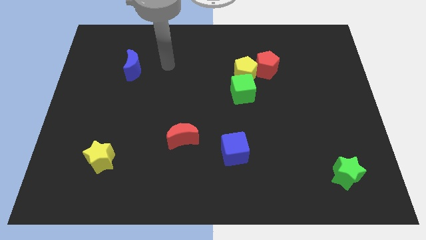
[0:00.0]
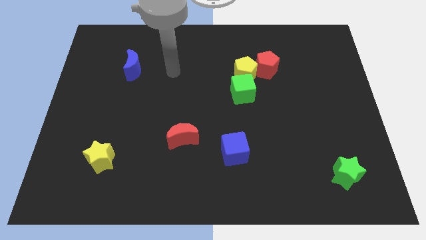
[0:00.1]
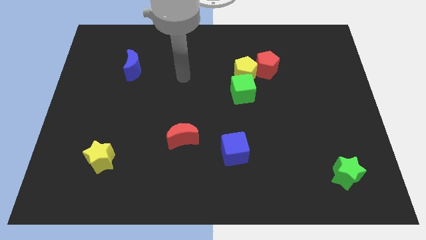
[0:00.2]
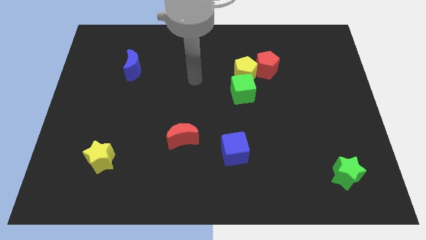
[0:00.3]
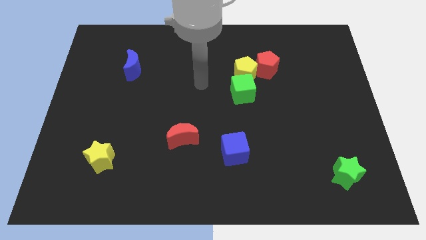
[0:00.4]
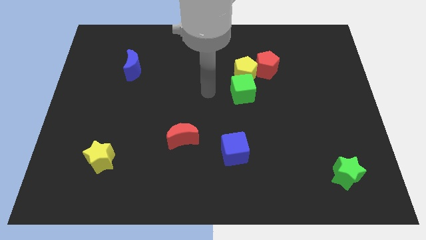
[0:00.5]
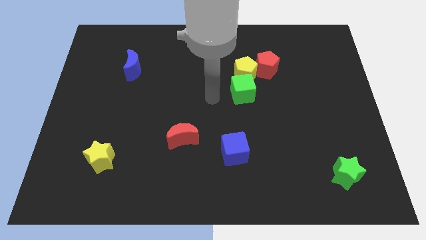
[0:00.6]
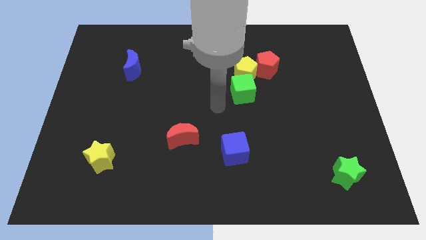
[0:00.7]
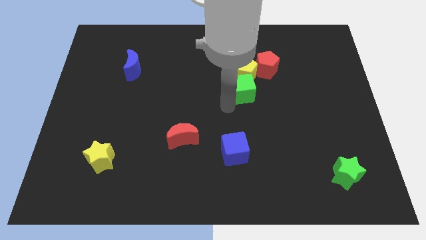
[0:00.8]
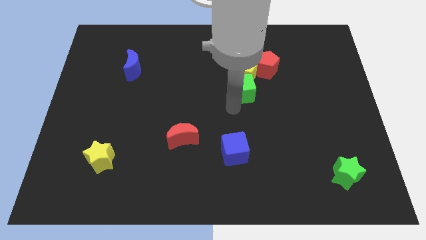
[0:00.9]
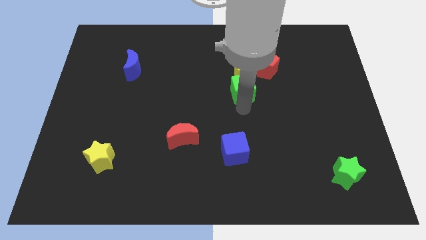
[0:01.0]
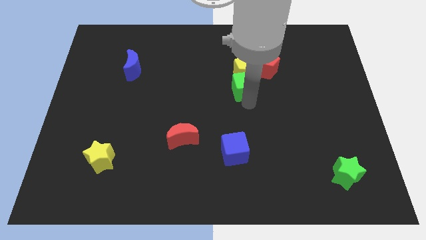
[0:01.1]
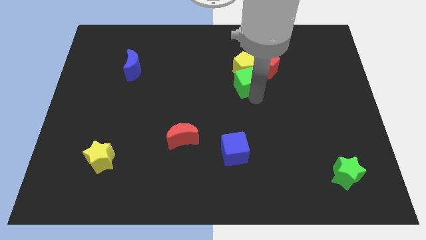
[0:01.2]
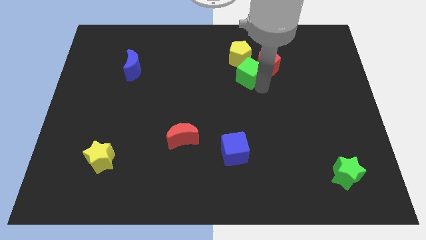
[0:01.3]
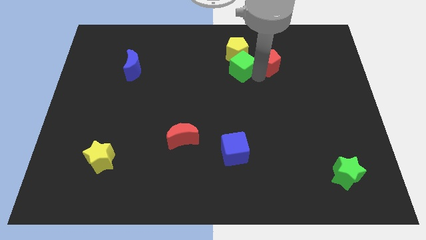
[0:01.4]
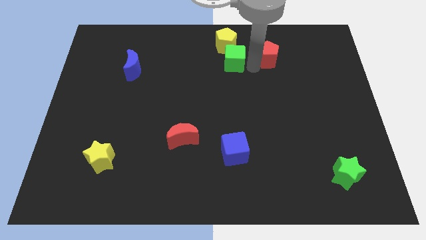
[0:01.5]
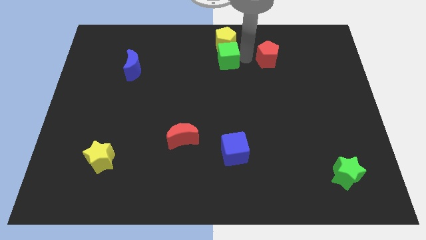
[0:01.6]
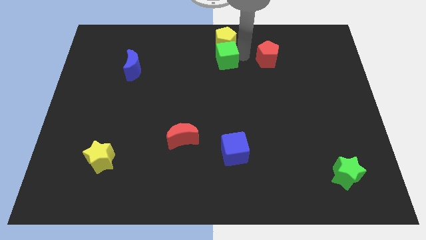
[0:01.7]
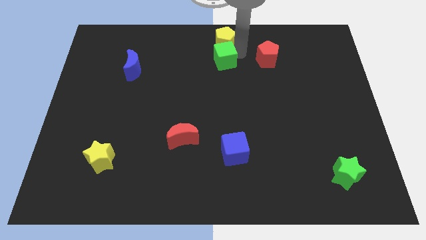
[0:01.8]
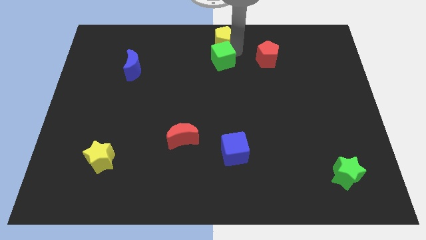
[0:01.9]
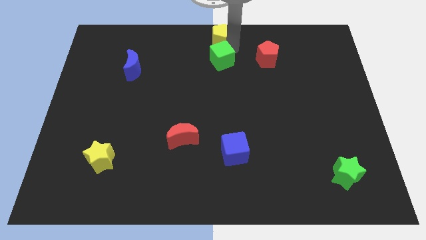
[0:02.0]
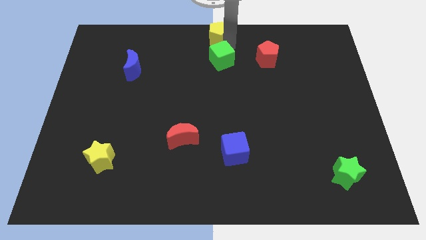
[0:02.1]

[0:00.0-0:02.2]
pull the yellow pentagon apart from the red pentagon and green cube

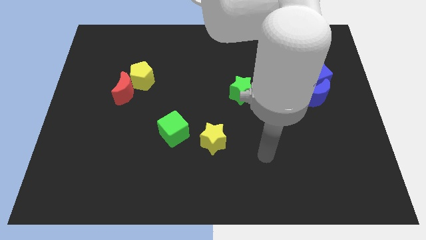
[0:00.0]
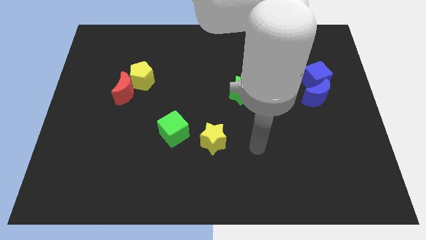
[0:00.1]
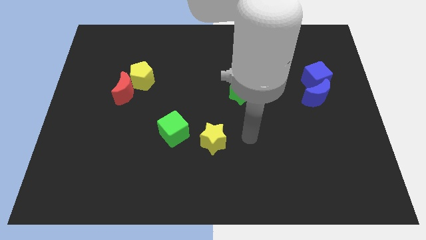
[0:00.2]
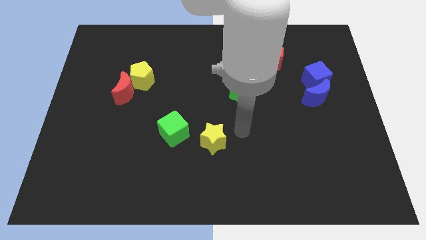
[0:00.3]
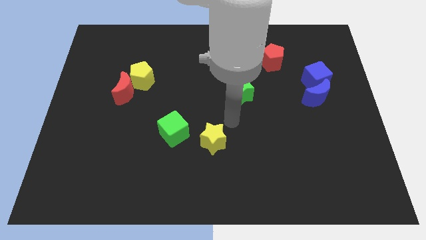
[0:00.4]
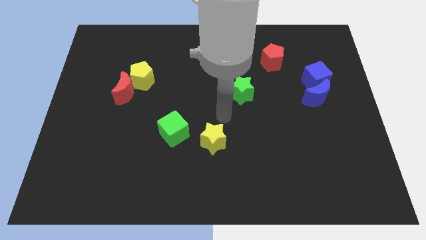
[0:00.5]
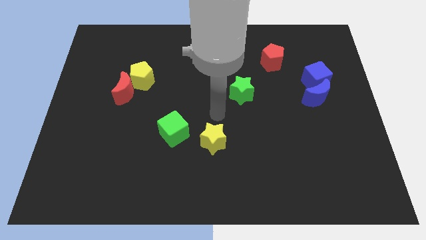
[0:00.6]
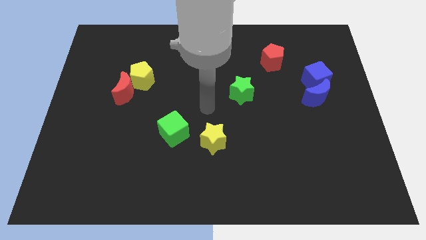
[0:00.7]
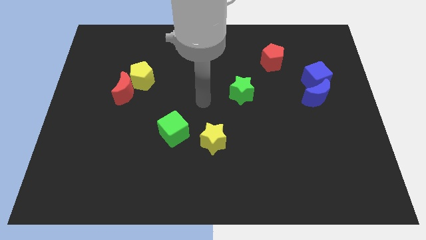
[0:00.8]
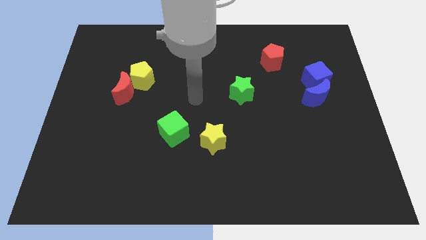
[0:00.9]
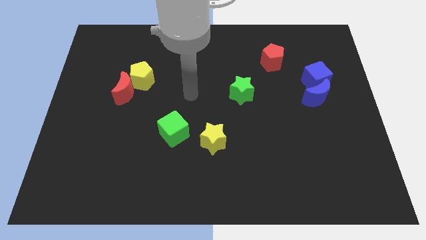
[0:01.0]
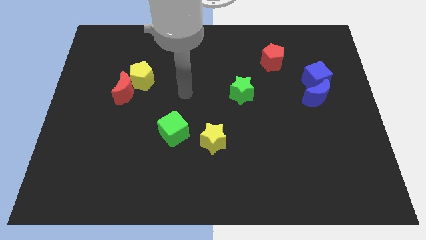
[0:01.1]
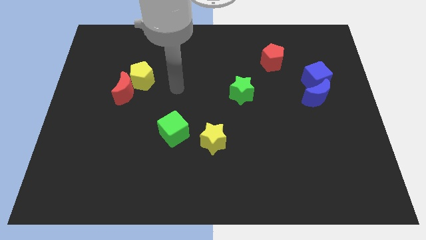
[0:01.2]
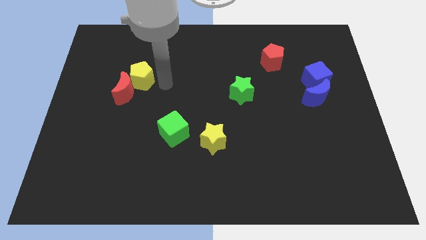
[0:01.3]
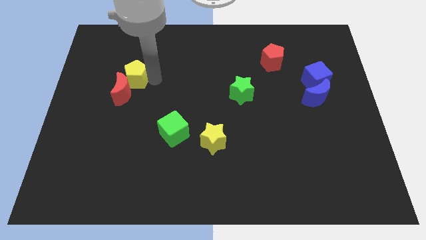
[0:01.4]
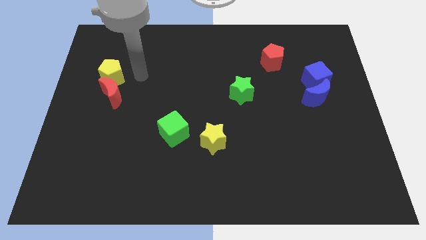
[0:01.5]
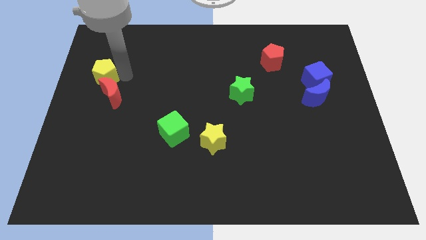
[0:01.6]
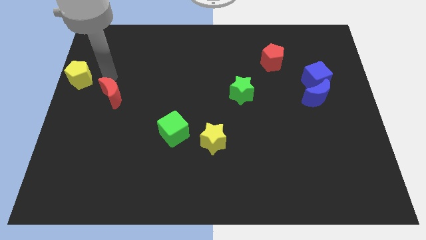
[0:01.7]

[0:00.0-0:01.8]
separate the red moon from the yellow pentagon

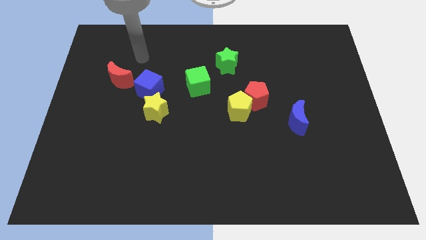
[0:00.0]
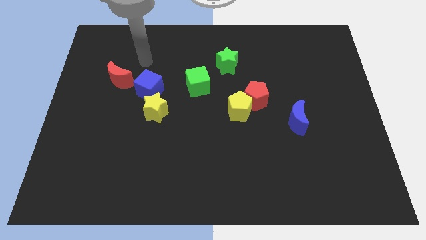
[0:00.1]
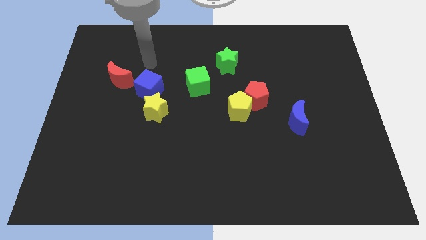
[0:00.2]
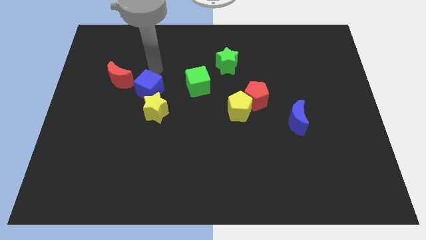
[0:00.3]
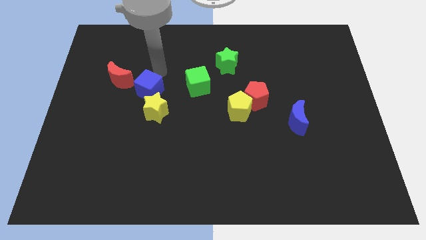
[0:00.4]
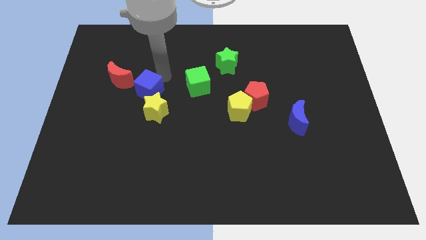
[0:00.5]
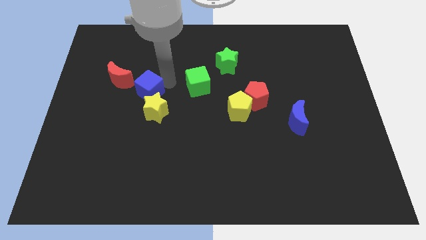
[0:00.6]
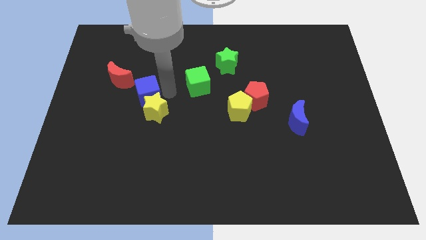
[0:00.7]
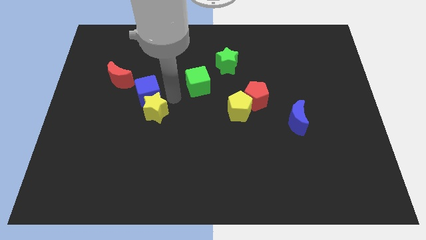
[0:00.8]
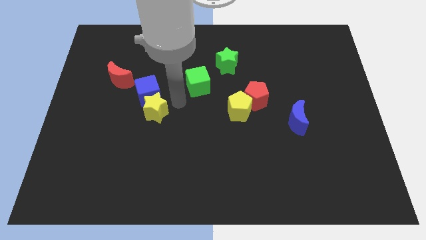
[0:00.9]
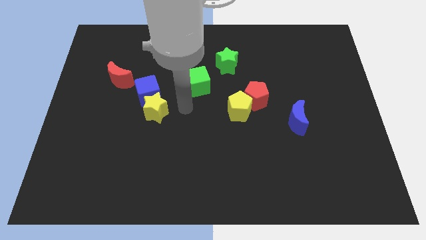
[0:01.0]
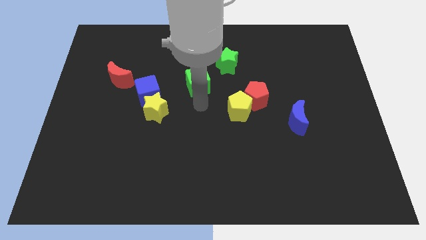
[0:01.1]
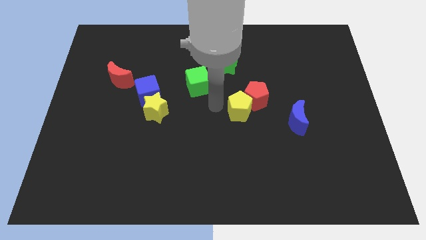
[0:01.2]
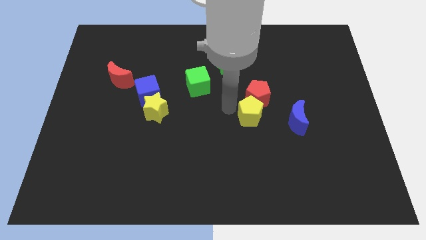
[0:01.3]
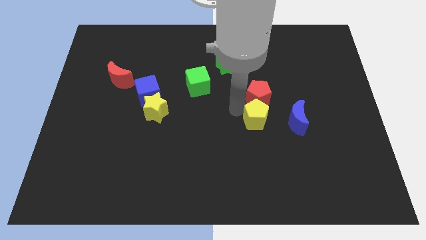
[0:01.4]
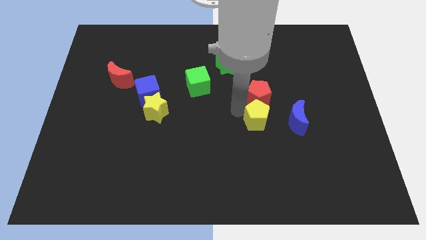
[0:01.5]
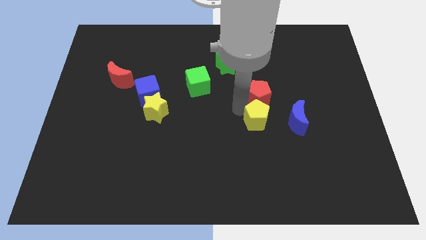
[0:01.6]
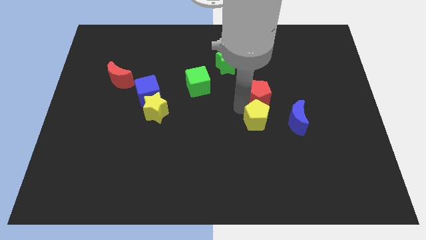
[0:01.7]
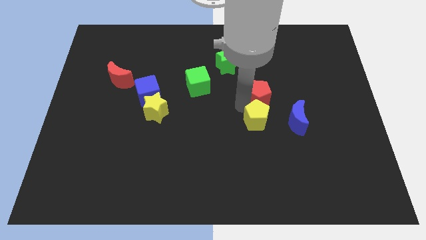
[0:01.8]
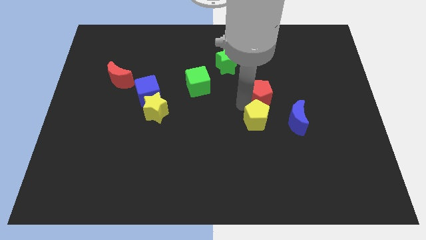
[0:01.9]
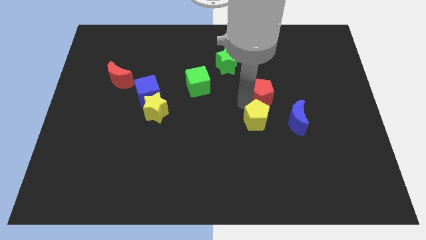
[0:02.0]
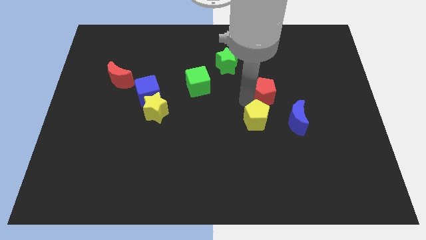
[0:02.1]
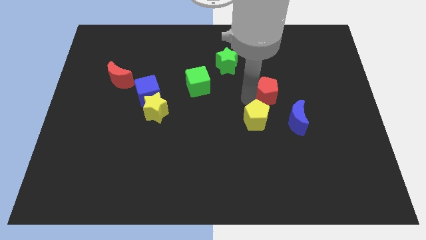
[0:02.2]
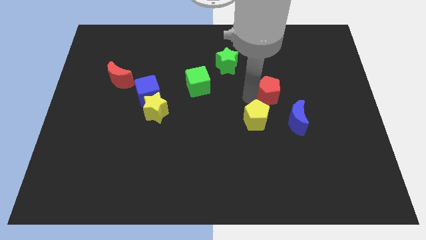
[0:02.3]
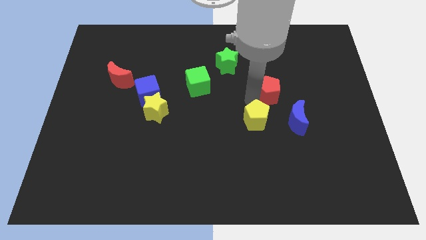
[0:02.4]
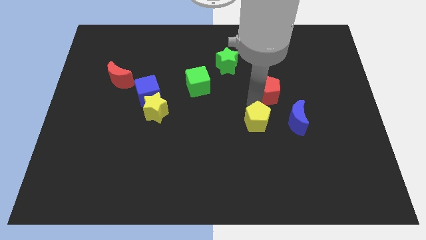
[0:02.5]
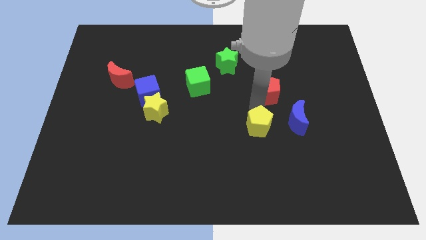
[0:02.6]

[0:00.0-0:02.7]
move the red pentagon away from the yellow pentagon

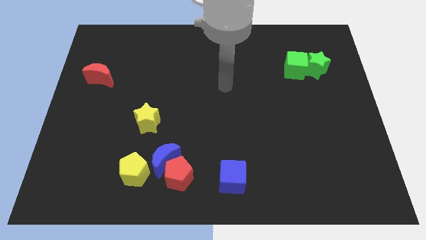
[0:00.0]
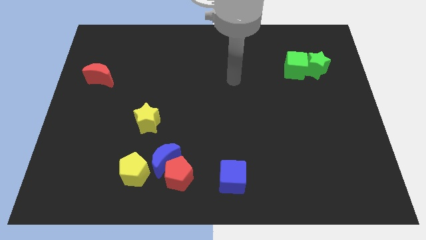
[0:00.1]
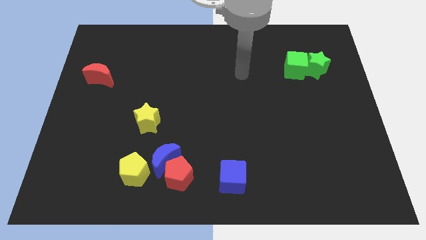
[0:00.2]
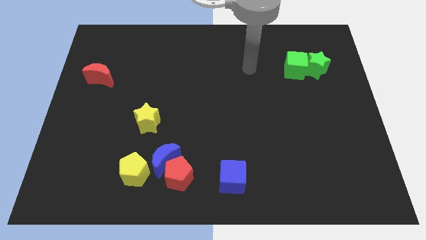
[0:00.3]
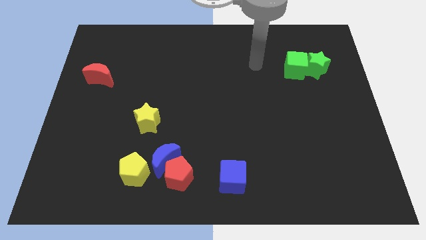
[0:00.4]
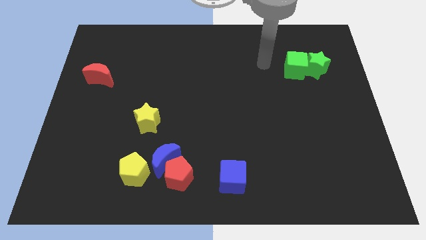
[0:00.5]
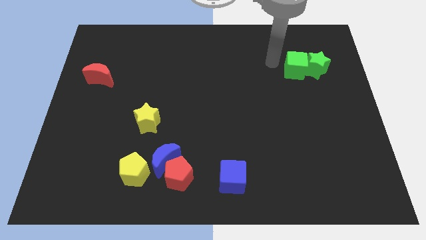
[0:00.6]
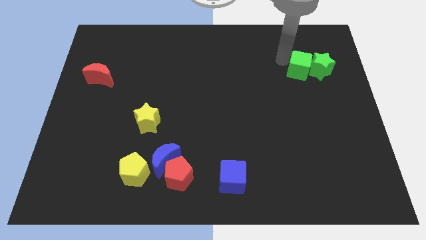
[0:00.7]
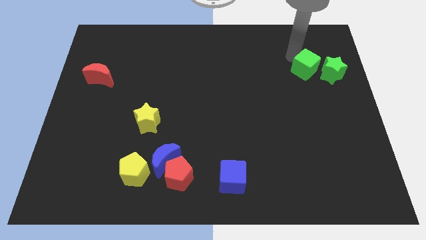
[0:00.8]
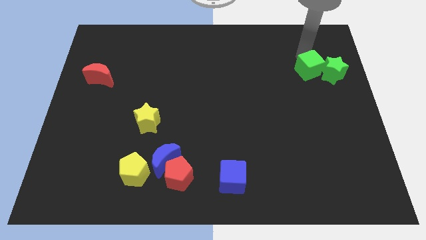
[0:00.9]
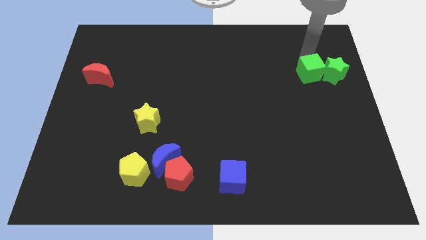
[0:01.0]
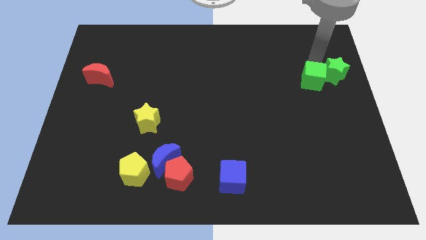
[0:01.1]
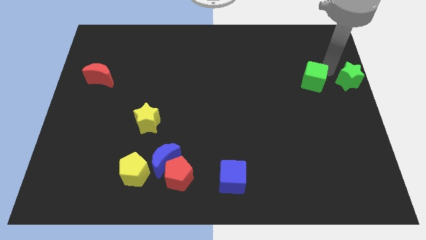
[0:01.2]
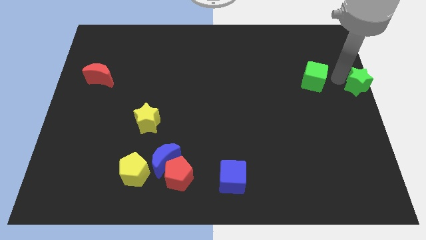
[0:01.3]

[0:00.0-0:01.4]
move the green cube away from the green star

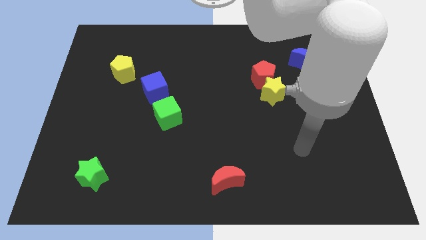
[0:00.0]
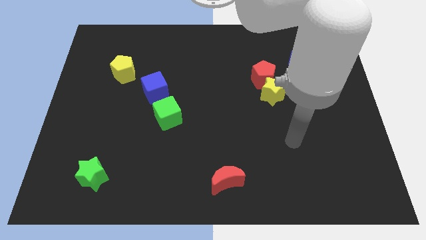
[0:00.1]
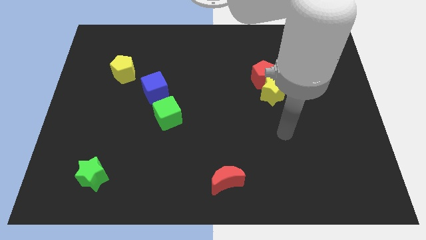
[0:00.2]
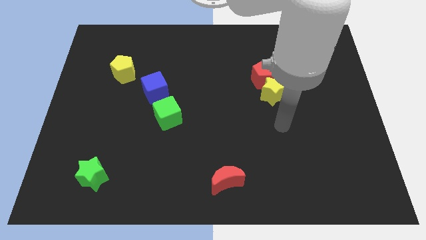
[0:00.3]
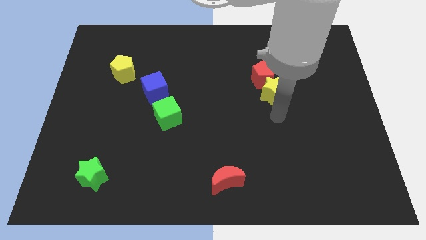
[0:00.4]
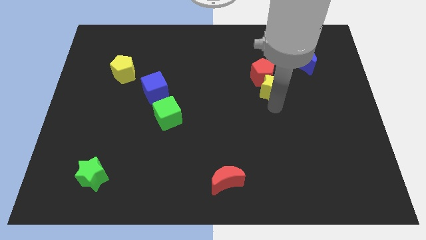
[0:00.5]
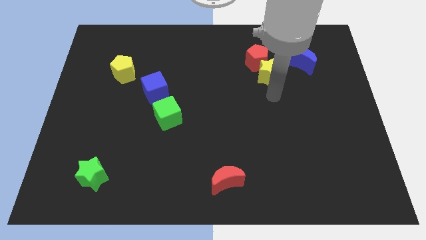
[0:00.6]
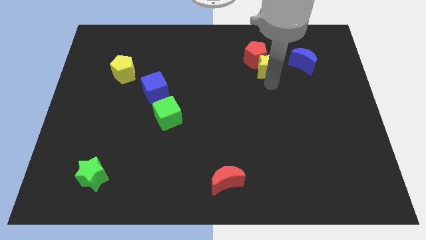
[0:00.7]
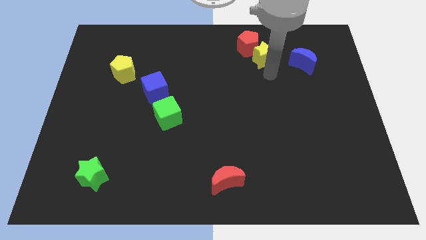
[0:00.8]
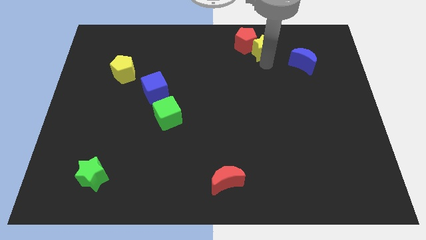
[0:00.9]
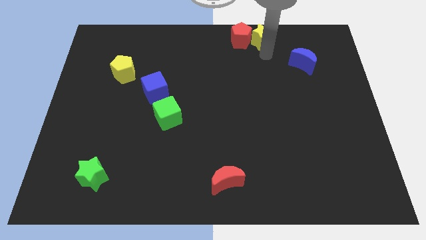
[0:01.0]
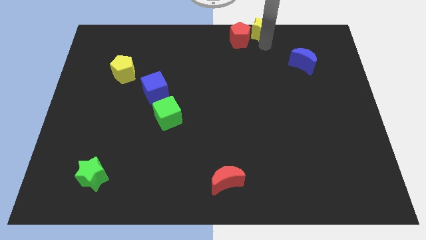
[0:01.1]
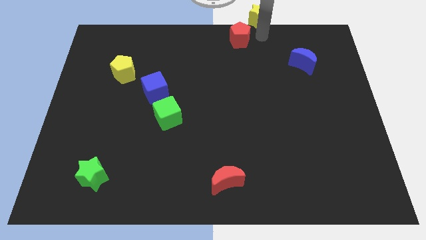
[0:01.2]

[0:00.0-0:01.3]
separate the red pentagon from the yellow star
